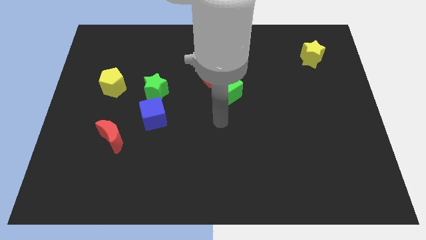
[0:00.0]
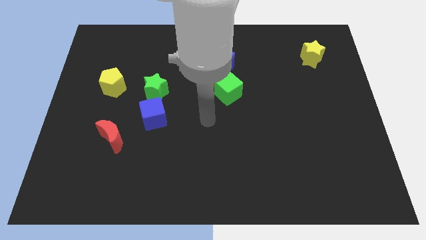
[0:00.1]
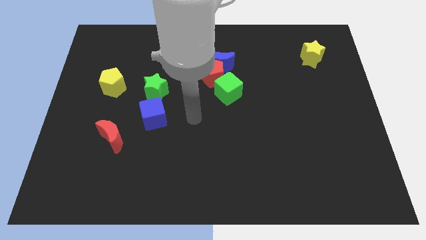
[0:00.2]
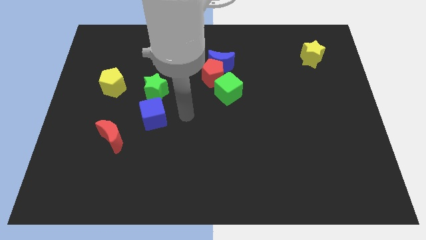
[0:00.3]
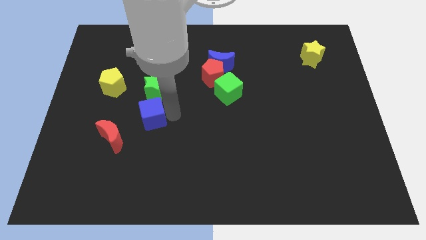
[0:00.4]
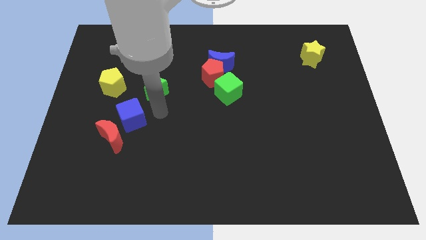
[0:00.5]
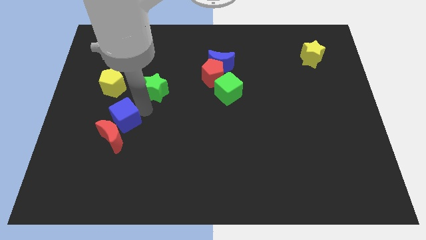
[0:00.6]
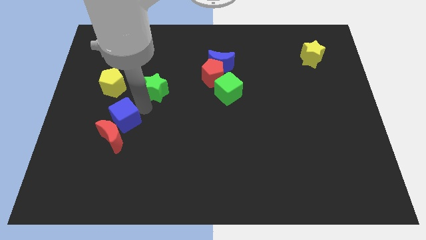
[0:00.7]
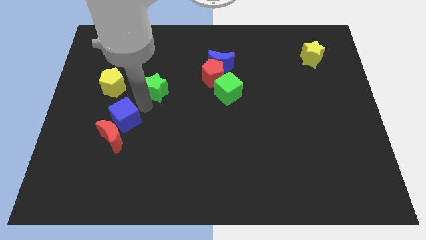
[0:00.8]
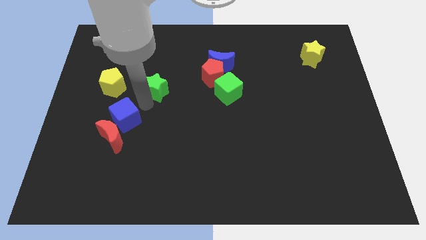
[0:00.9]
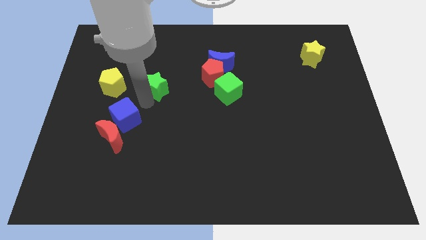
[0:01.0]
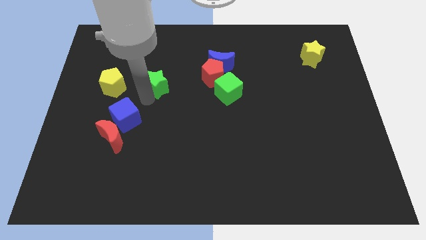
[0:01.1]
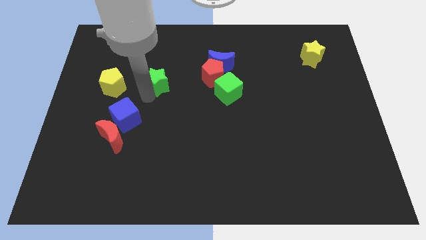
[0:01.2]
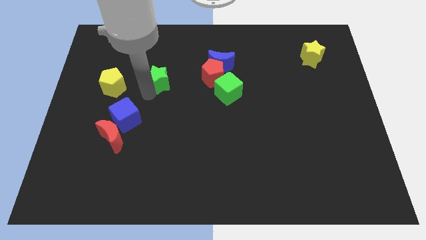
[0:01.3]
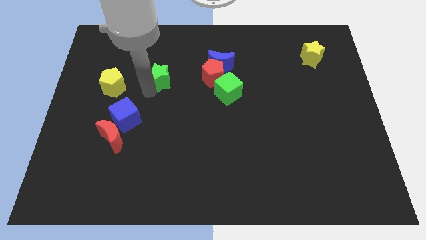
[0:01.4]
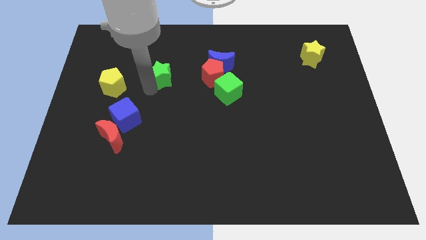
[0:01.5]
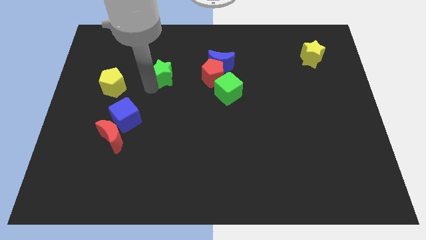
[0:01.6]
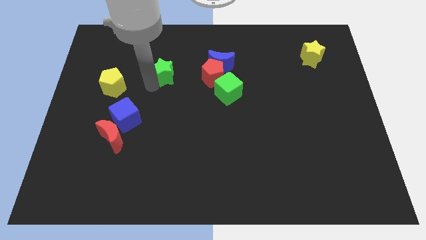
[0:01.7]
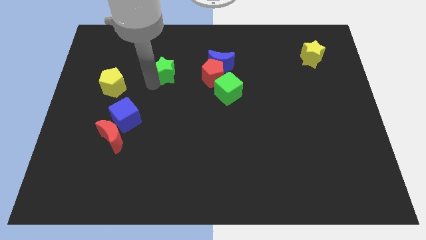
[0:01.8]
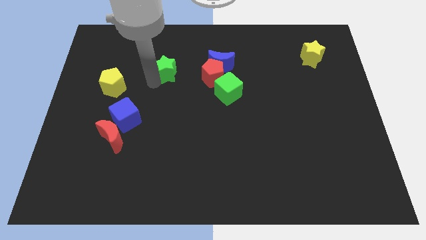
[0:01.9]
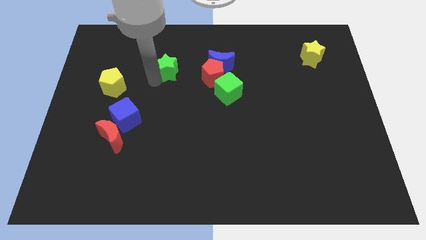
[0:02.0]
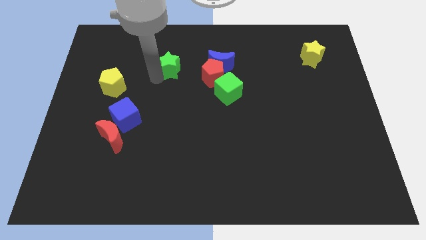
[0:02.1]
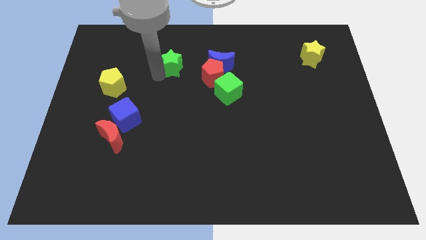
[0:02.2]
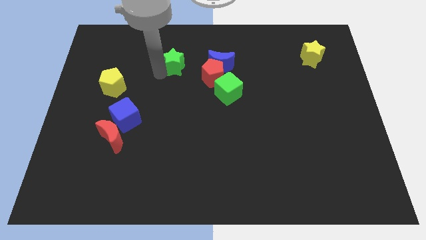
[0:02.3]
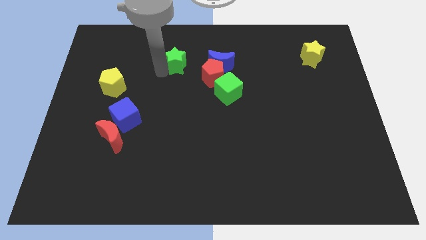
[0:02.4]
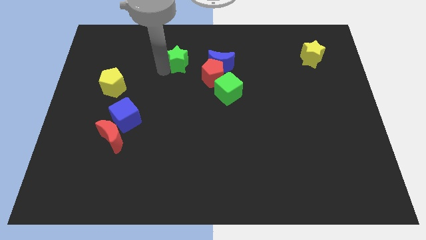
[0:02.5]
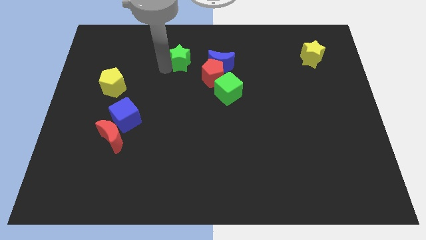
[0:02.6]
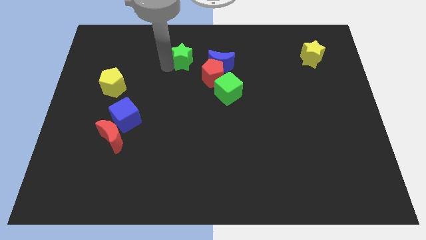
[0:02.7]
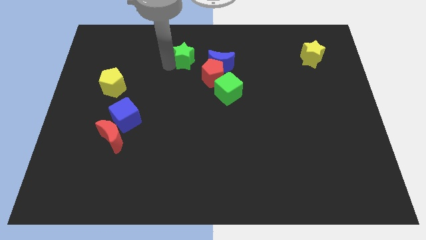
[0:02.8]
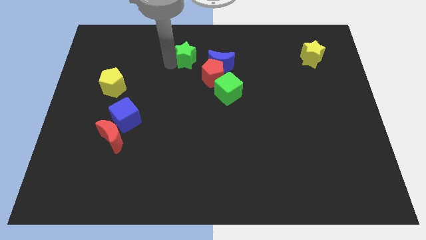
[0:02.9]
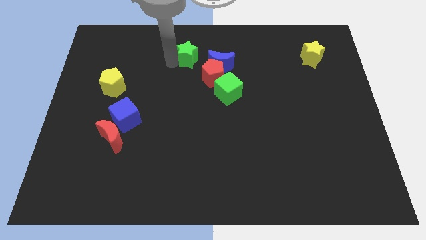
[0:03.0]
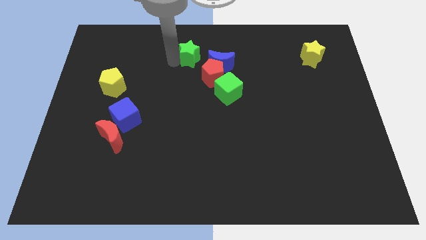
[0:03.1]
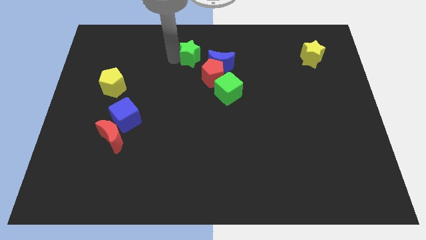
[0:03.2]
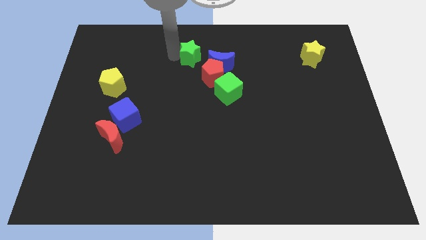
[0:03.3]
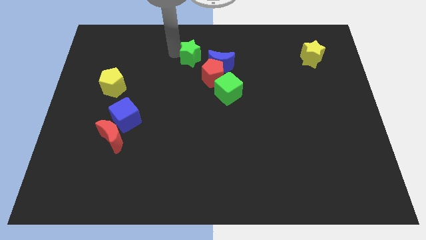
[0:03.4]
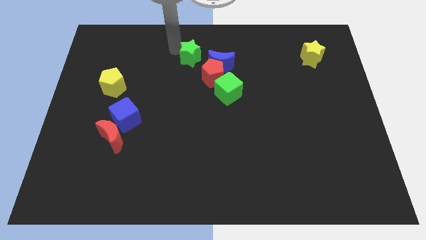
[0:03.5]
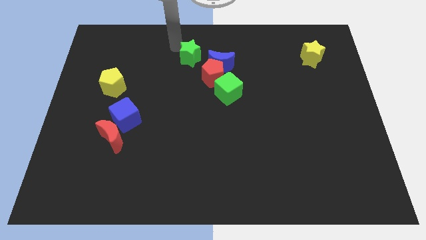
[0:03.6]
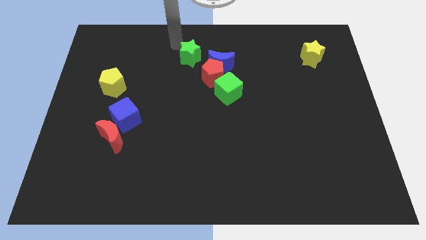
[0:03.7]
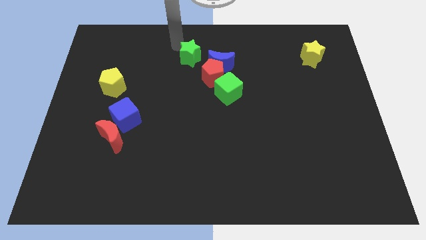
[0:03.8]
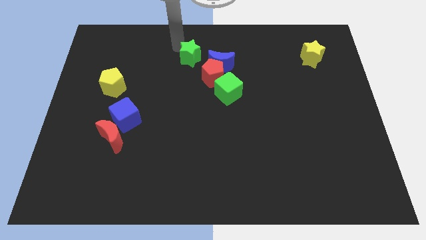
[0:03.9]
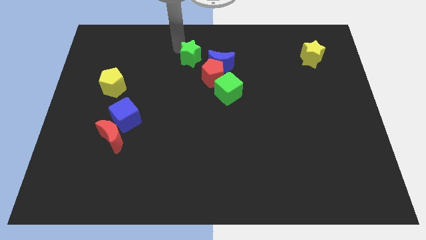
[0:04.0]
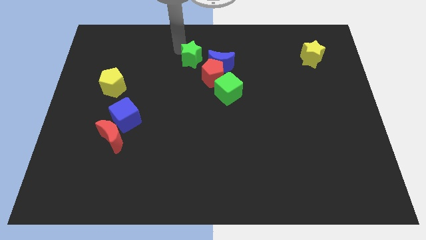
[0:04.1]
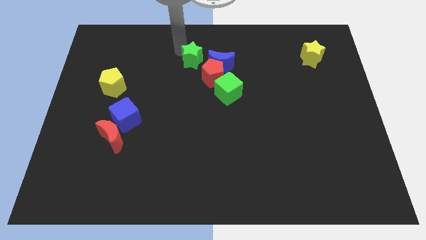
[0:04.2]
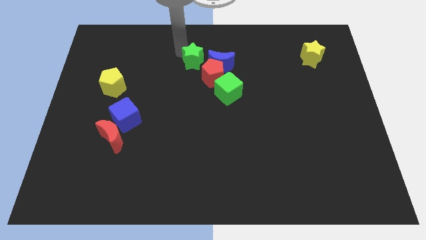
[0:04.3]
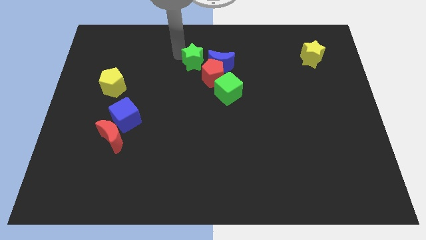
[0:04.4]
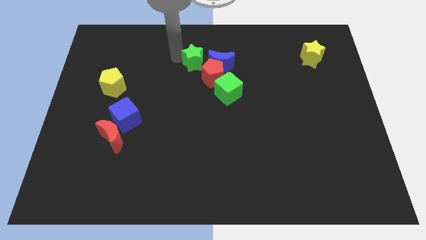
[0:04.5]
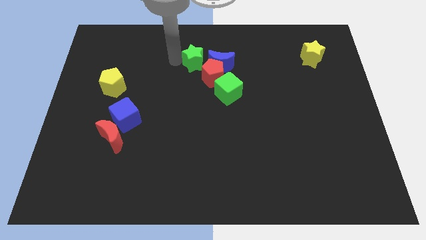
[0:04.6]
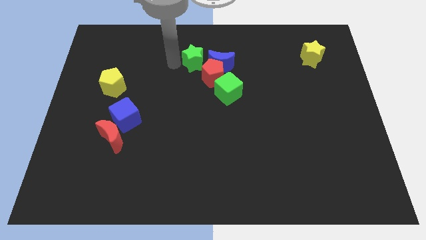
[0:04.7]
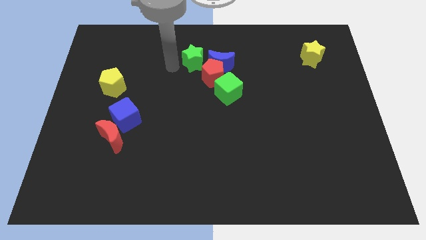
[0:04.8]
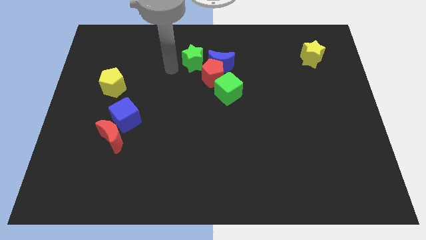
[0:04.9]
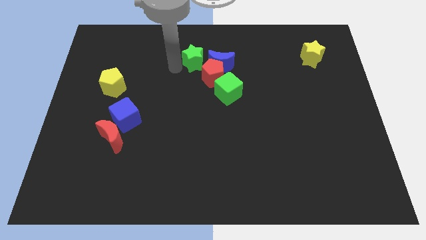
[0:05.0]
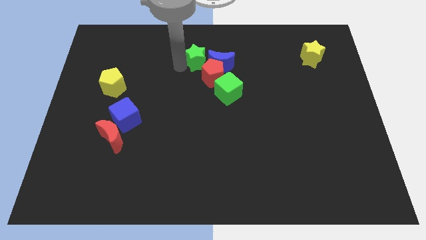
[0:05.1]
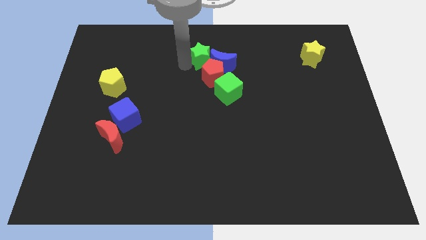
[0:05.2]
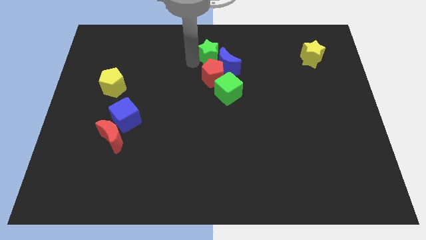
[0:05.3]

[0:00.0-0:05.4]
move the green star to the top of the green cube

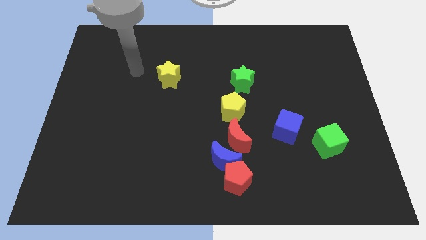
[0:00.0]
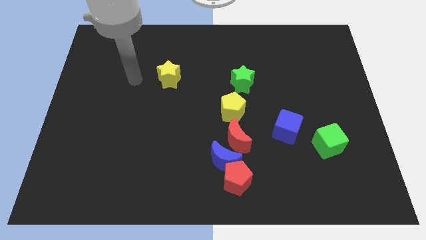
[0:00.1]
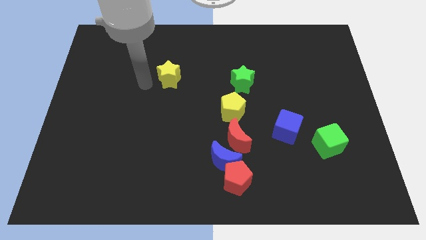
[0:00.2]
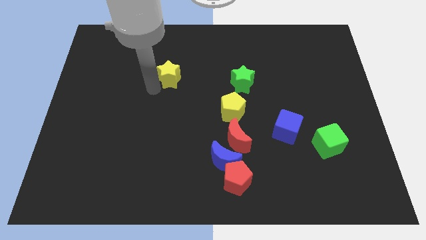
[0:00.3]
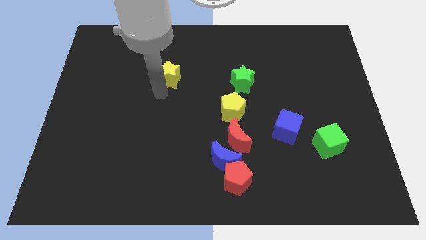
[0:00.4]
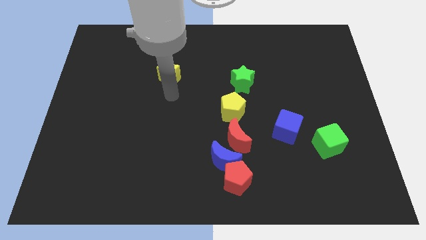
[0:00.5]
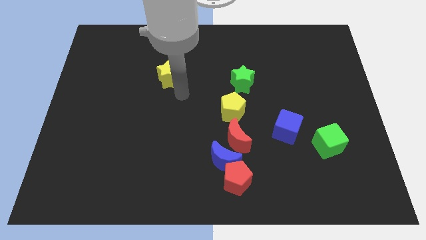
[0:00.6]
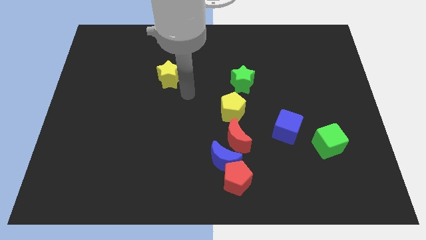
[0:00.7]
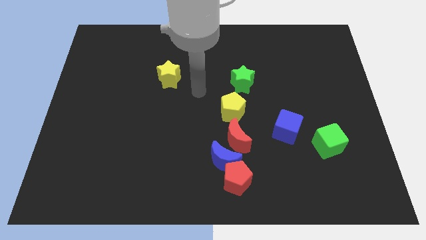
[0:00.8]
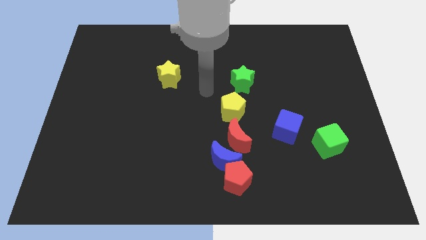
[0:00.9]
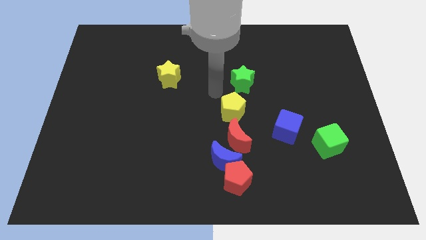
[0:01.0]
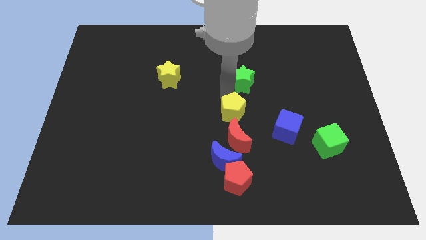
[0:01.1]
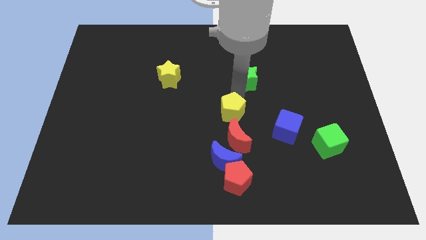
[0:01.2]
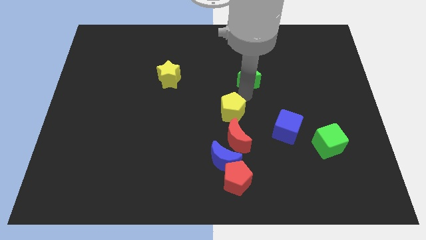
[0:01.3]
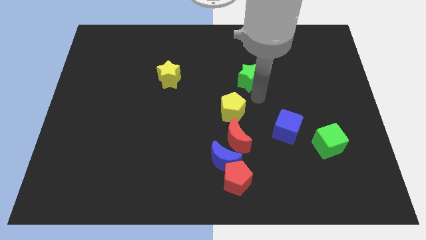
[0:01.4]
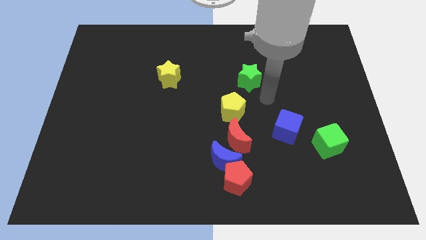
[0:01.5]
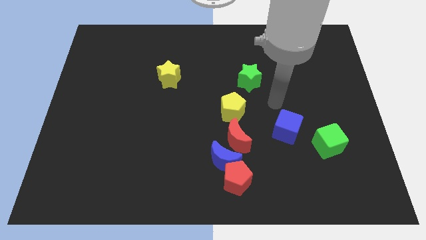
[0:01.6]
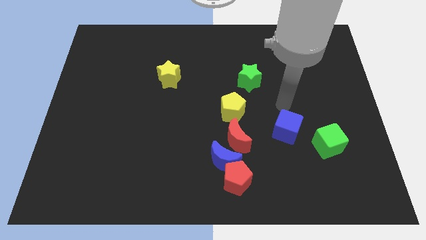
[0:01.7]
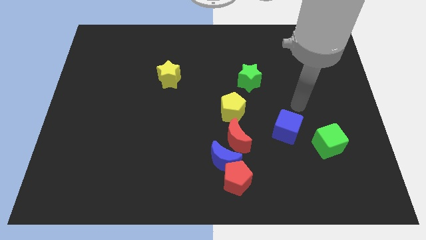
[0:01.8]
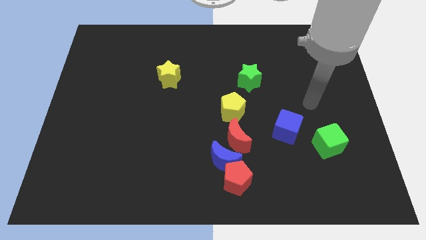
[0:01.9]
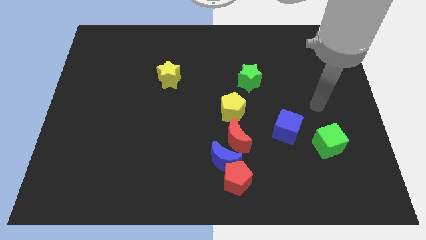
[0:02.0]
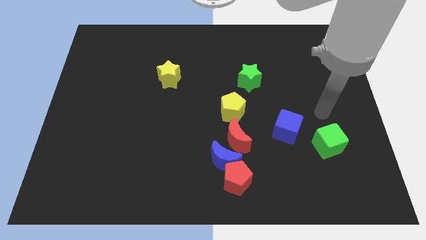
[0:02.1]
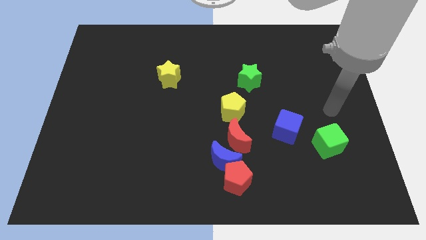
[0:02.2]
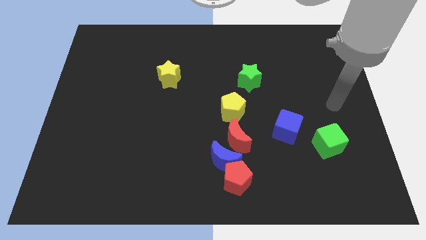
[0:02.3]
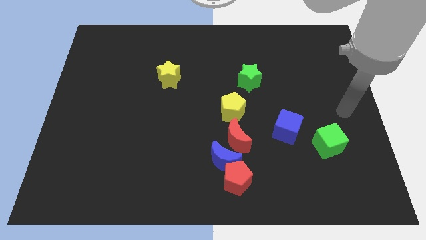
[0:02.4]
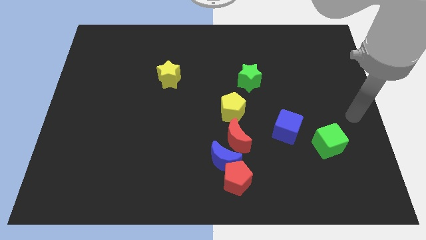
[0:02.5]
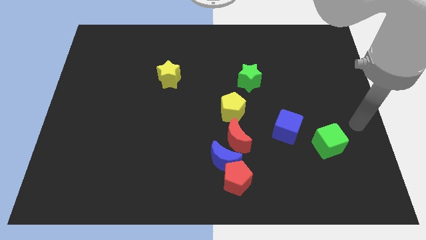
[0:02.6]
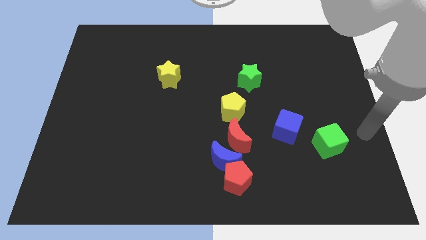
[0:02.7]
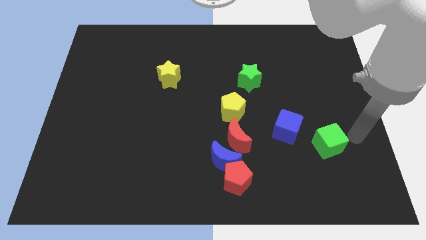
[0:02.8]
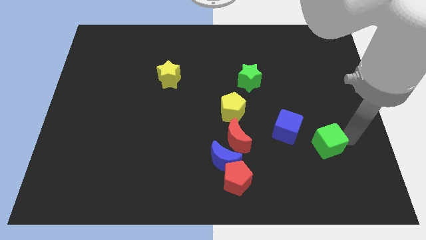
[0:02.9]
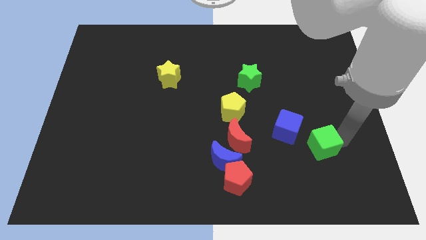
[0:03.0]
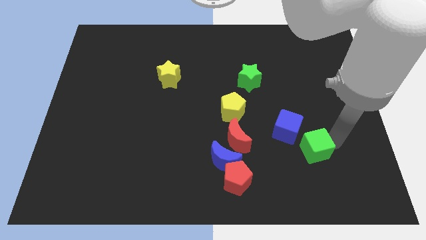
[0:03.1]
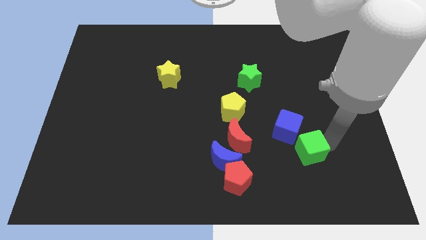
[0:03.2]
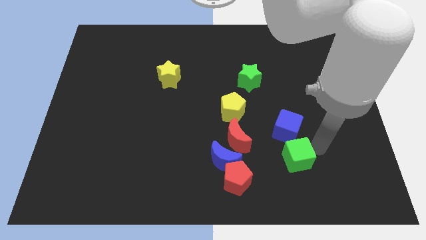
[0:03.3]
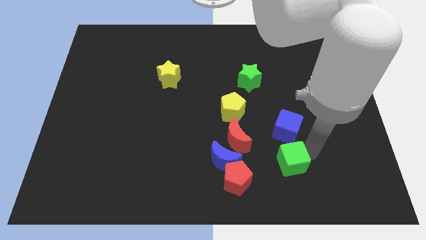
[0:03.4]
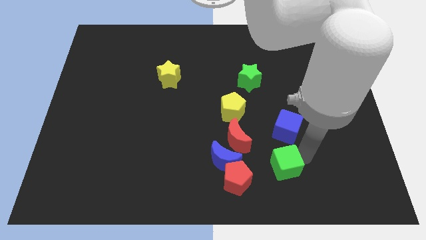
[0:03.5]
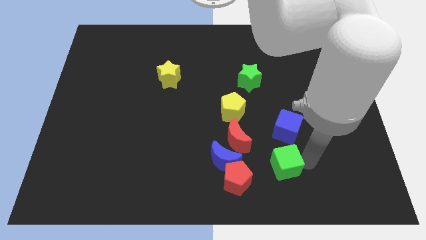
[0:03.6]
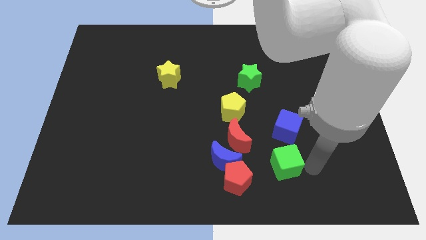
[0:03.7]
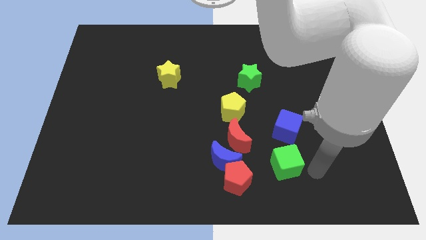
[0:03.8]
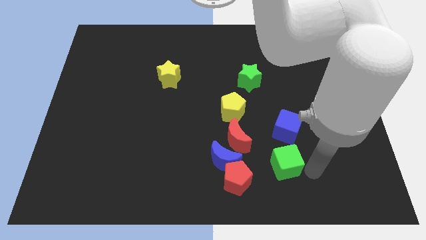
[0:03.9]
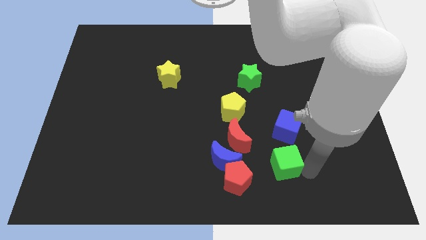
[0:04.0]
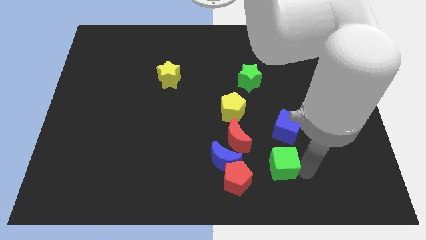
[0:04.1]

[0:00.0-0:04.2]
slide the green cube to the top right of the red pentagon
